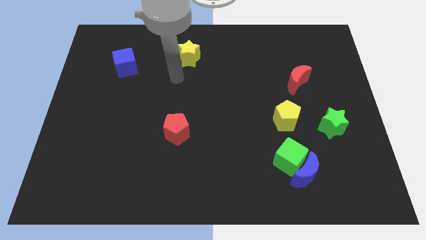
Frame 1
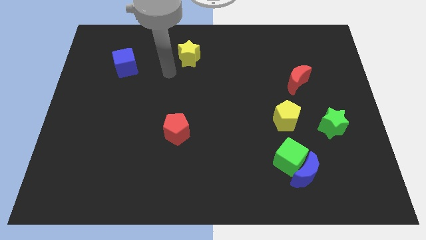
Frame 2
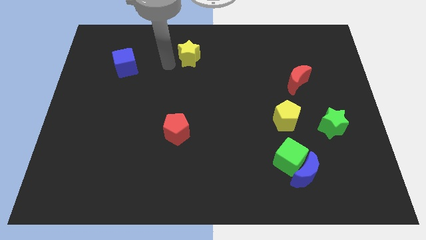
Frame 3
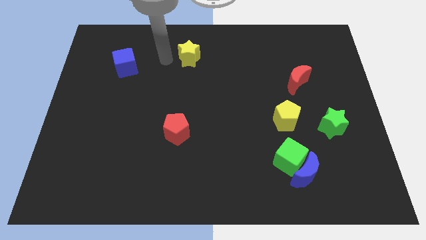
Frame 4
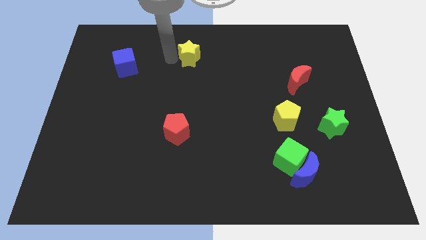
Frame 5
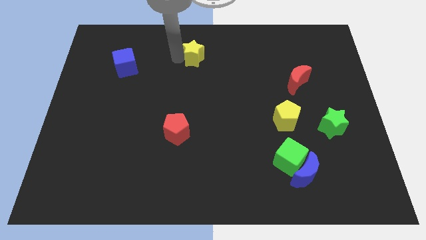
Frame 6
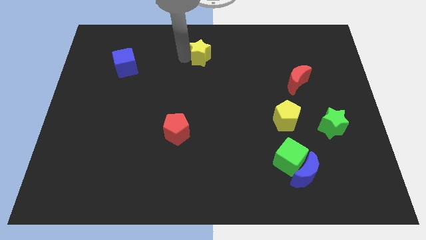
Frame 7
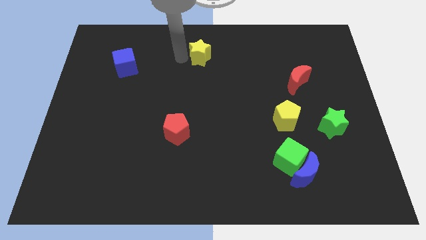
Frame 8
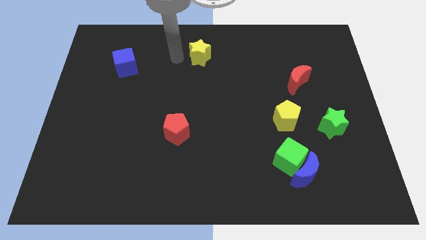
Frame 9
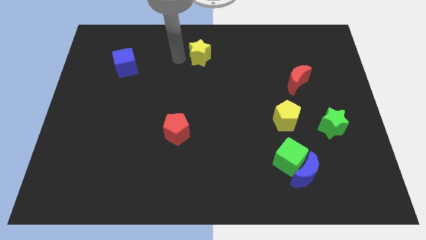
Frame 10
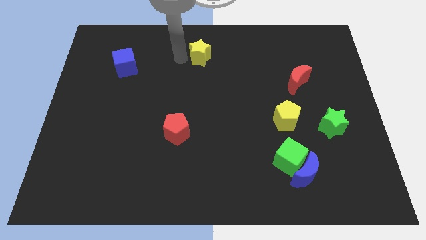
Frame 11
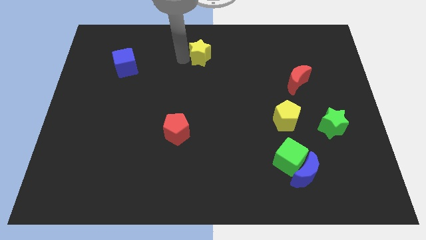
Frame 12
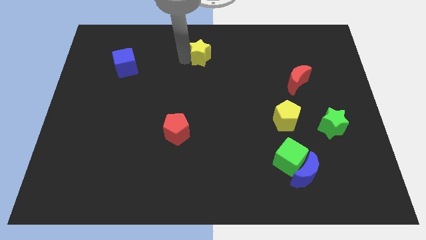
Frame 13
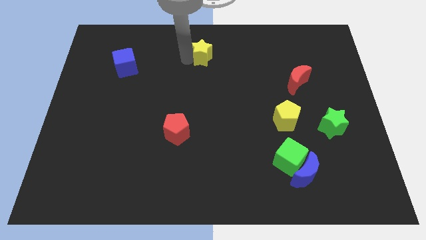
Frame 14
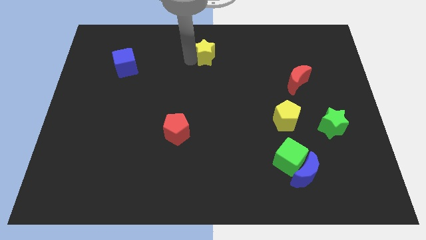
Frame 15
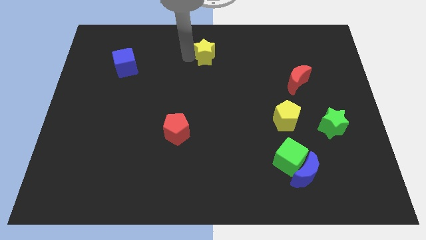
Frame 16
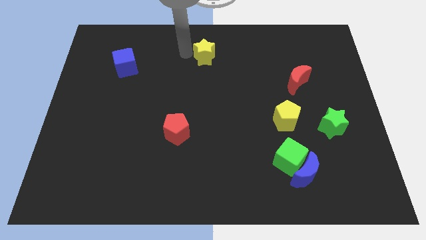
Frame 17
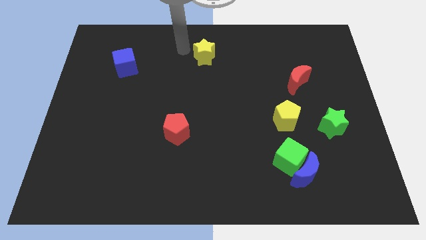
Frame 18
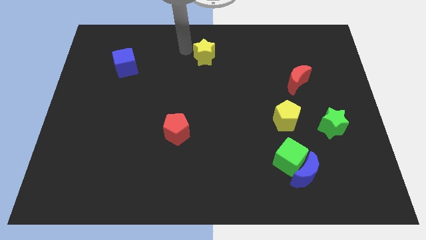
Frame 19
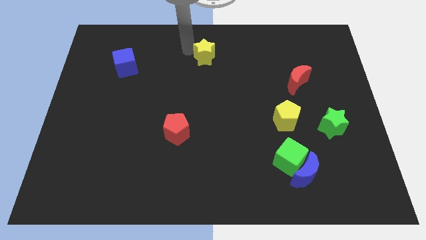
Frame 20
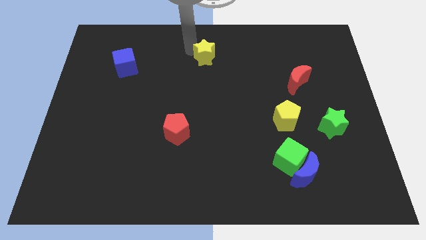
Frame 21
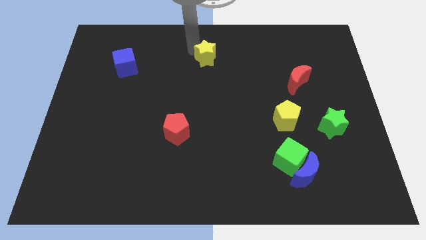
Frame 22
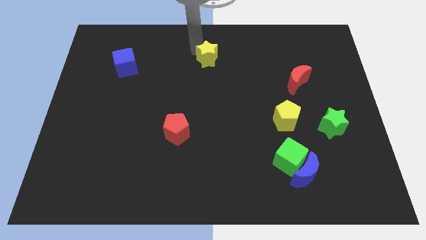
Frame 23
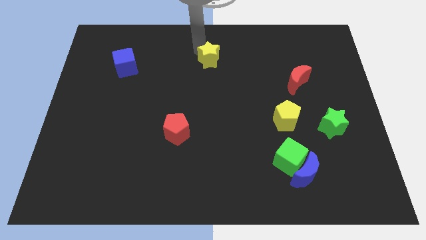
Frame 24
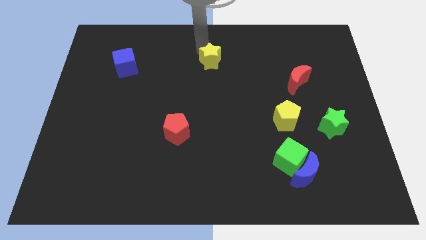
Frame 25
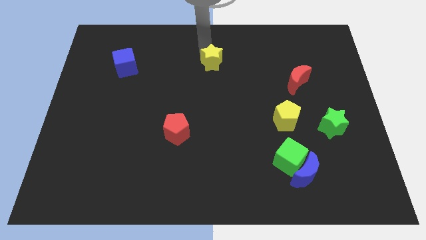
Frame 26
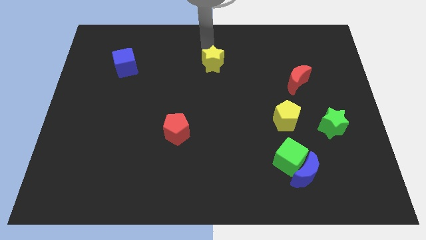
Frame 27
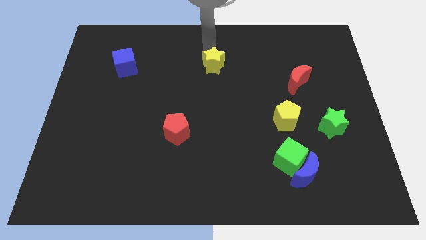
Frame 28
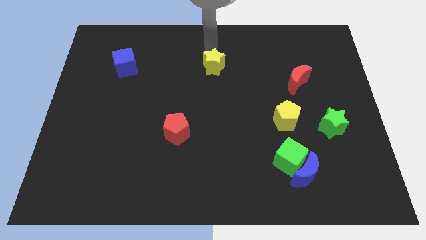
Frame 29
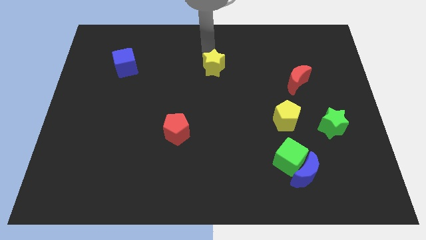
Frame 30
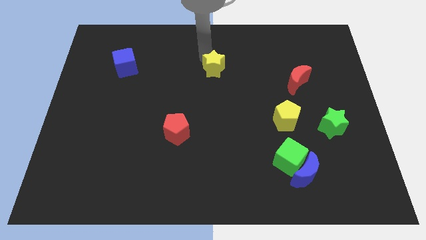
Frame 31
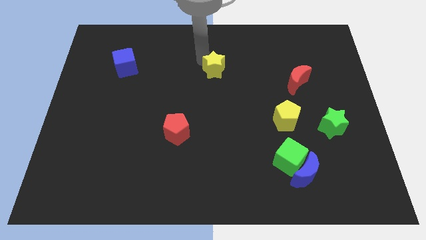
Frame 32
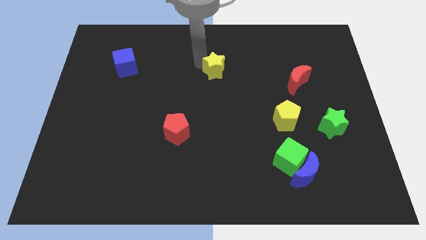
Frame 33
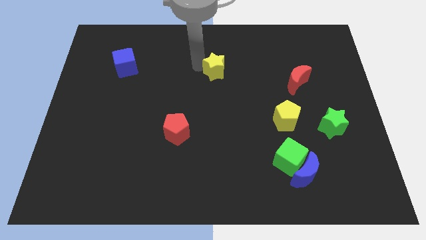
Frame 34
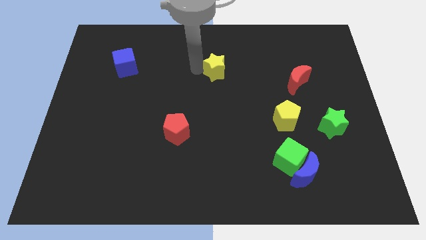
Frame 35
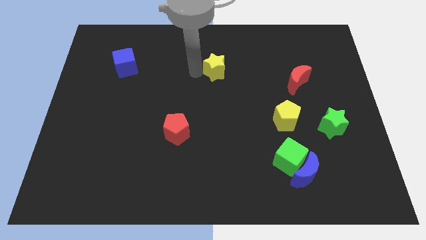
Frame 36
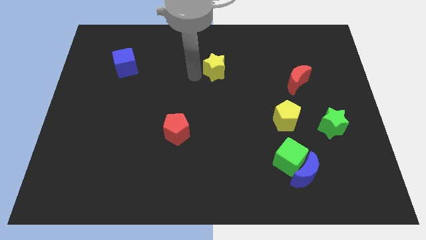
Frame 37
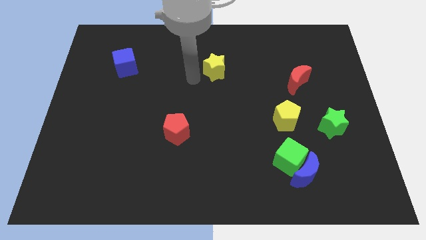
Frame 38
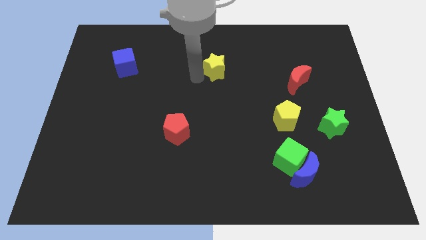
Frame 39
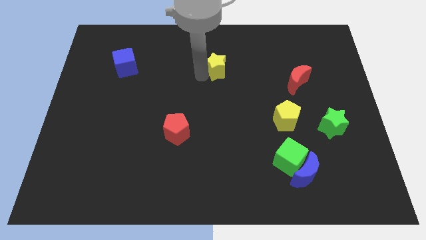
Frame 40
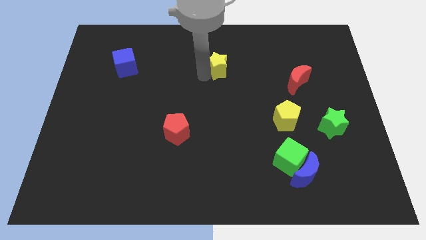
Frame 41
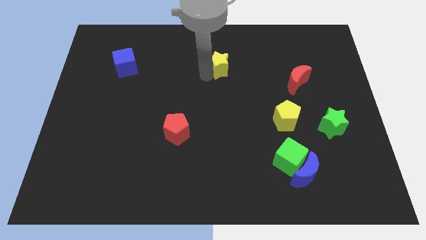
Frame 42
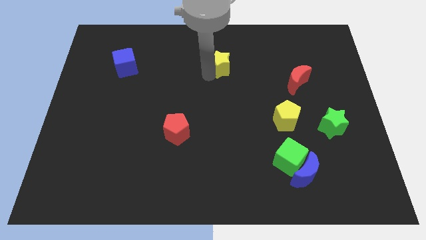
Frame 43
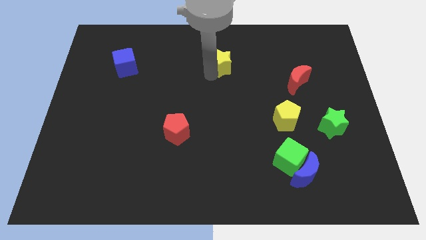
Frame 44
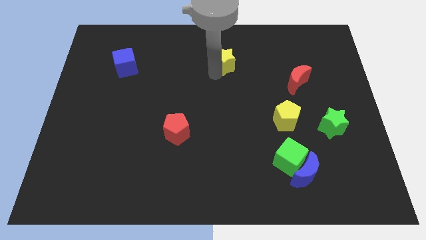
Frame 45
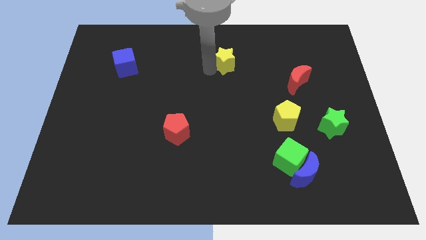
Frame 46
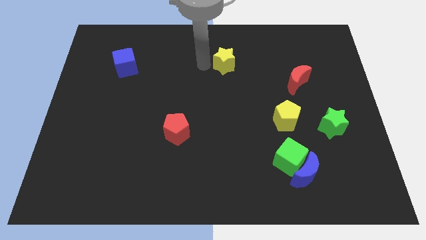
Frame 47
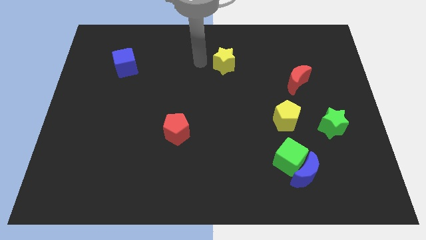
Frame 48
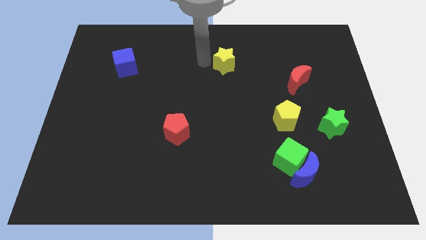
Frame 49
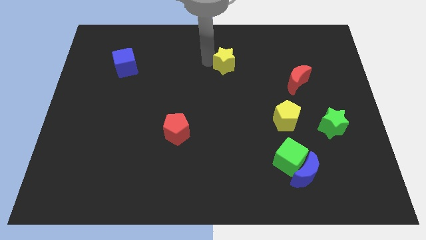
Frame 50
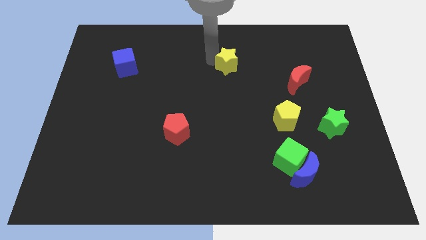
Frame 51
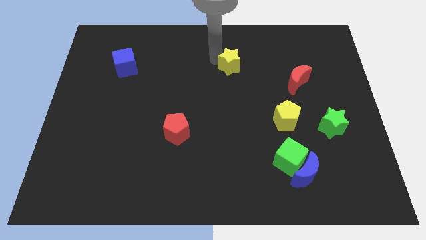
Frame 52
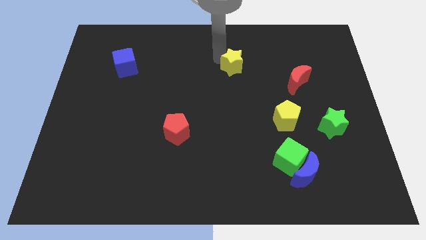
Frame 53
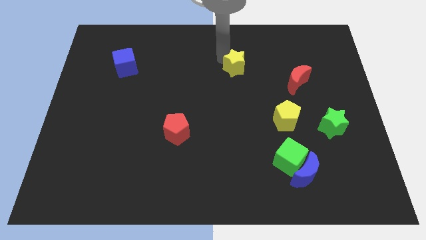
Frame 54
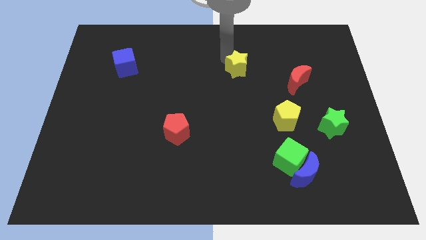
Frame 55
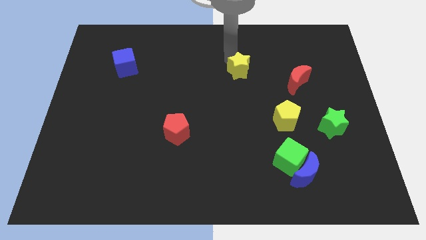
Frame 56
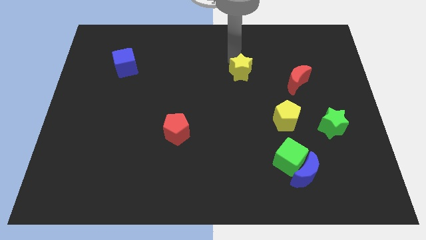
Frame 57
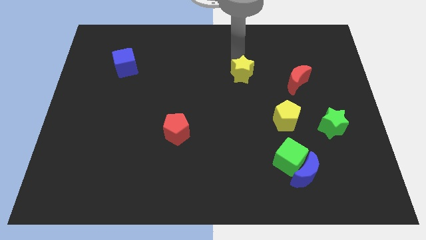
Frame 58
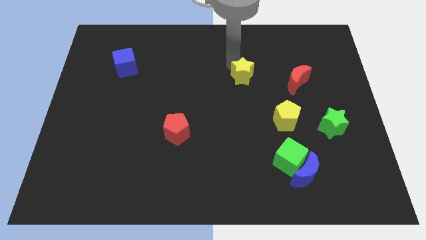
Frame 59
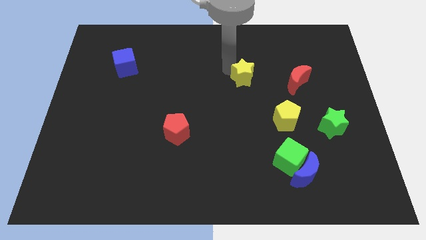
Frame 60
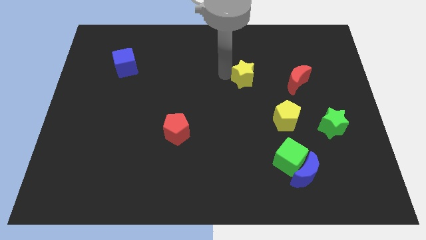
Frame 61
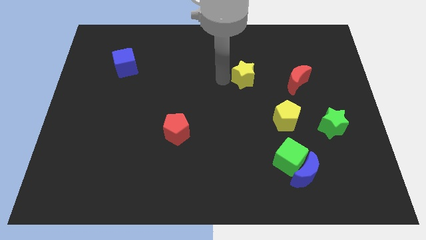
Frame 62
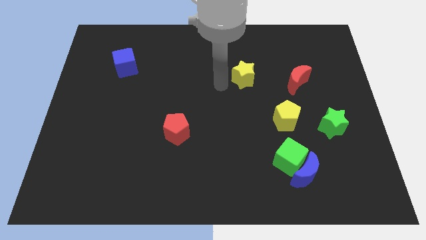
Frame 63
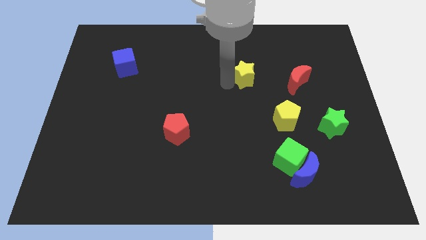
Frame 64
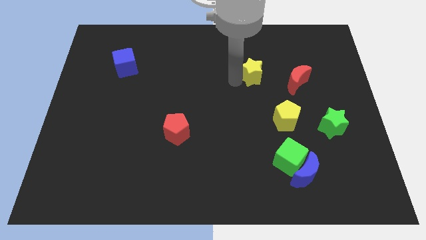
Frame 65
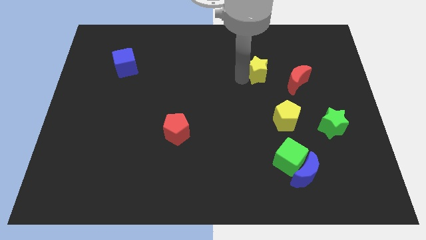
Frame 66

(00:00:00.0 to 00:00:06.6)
push the yellow star to the top left side of the red moon

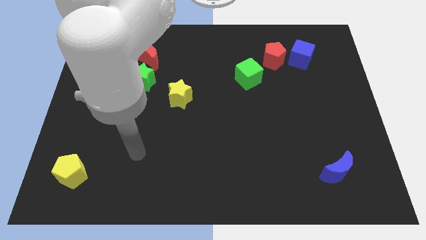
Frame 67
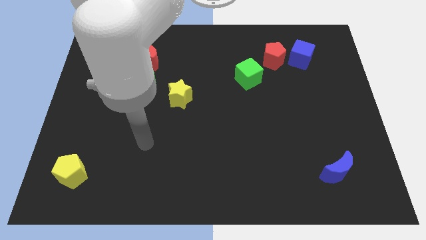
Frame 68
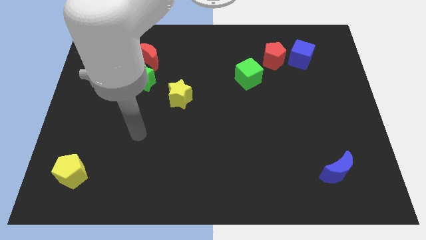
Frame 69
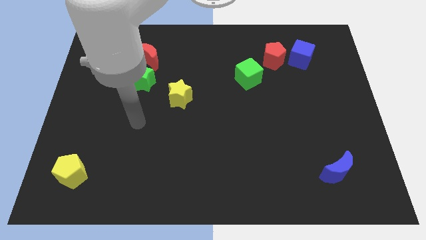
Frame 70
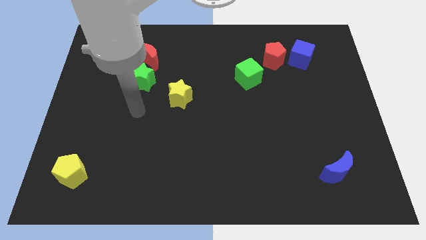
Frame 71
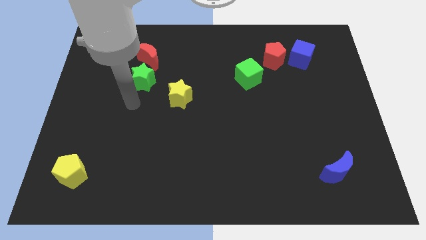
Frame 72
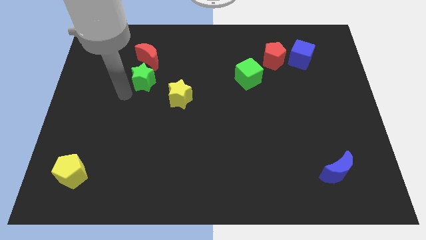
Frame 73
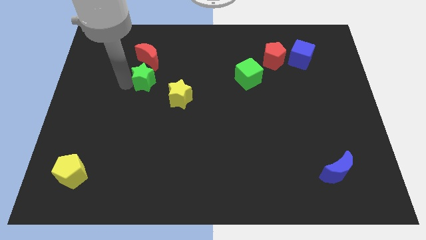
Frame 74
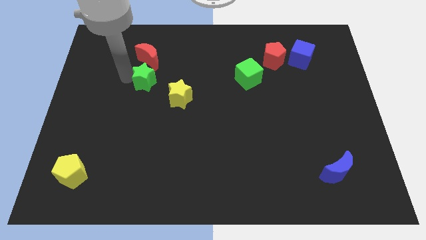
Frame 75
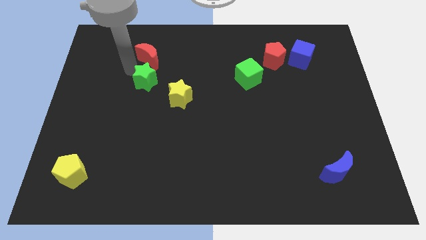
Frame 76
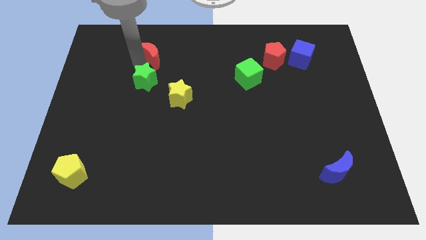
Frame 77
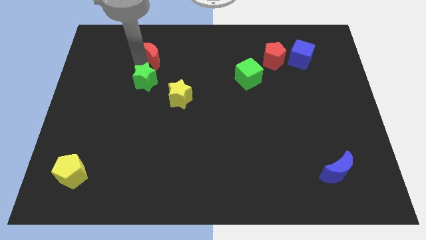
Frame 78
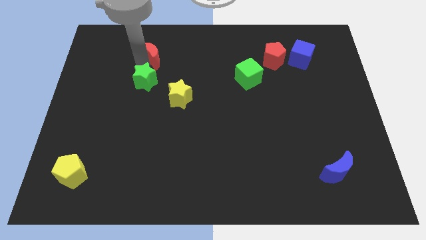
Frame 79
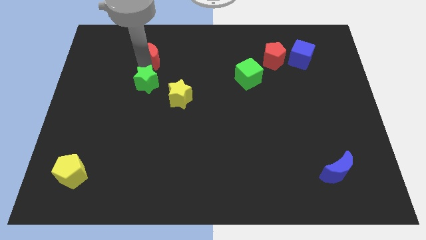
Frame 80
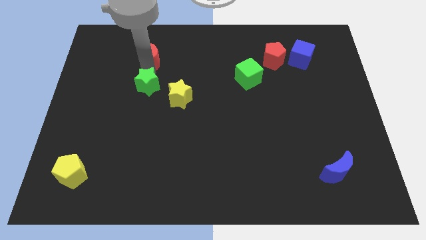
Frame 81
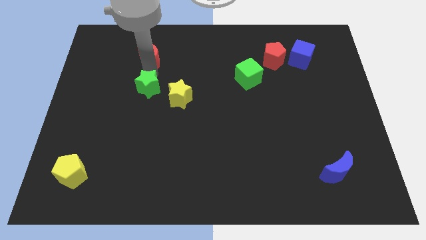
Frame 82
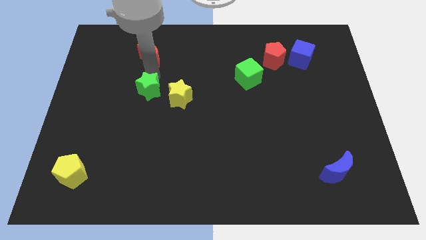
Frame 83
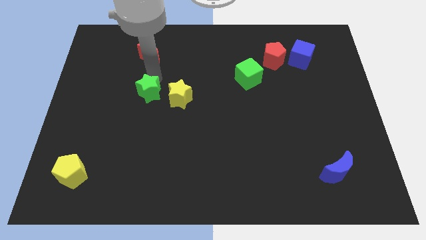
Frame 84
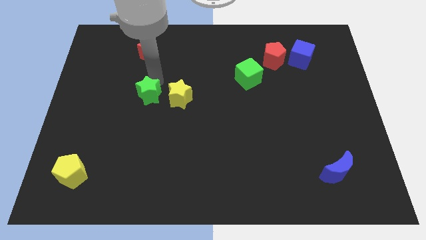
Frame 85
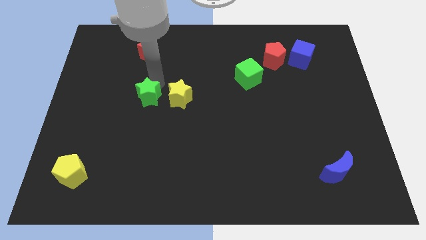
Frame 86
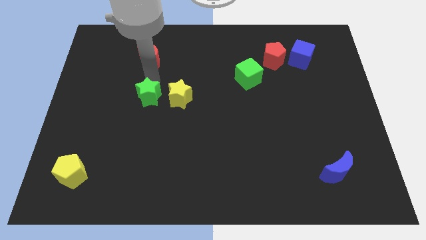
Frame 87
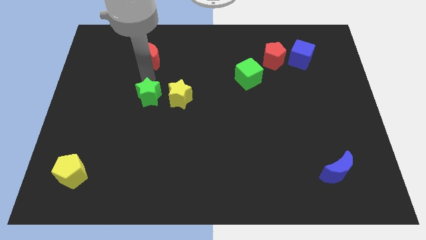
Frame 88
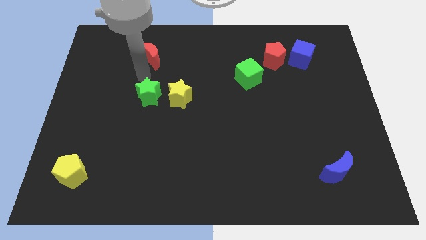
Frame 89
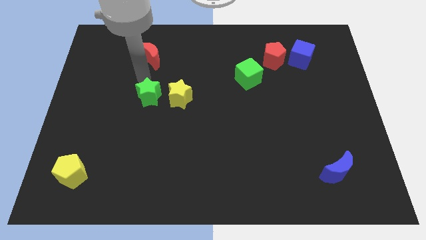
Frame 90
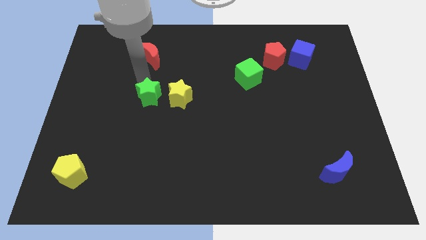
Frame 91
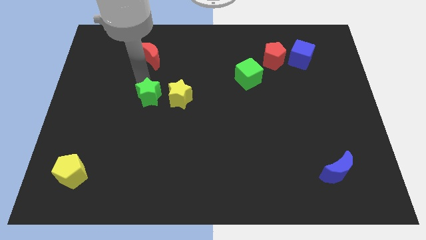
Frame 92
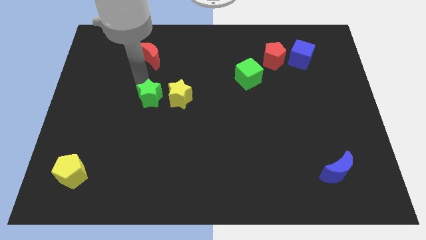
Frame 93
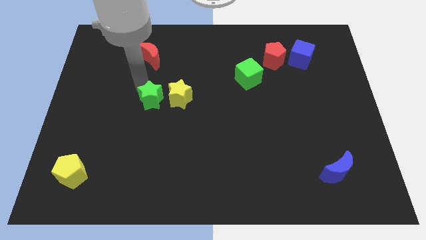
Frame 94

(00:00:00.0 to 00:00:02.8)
push the green star to the bottom left of the yellow star
